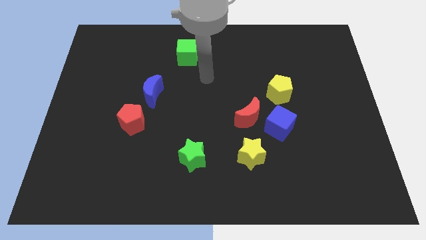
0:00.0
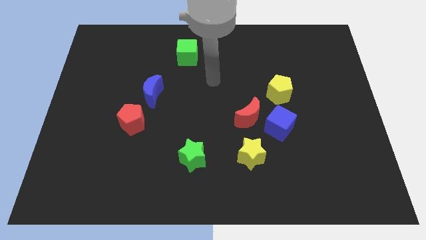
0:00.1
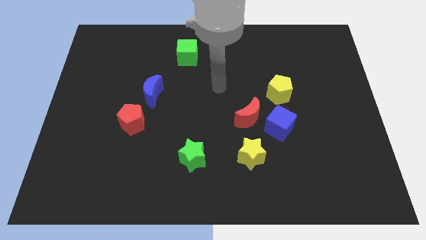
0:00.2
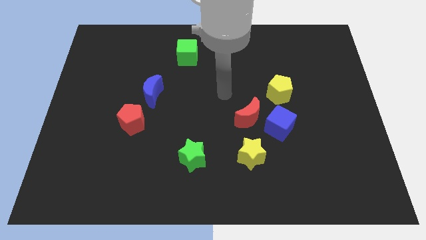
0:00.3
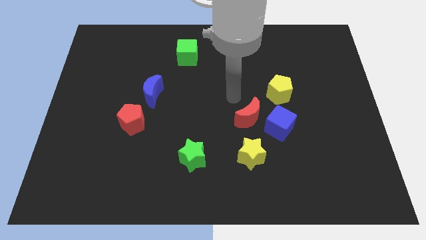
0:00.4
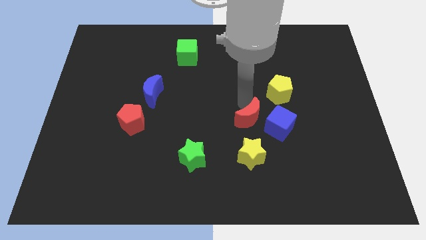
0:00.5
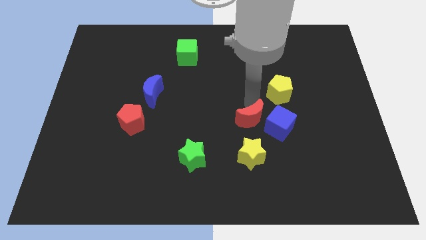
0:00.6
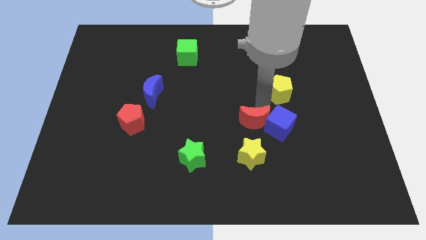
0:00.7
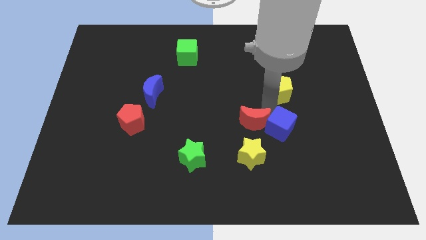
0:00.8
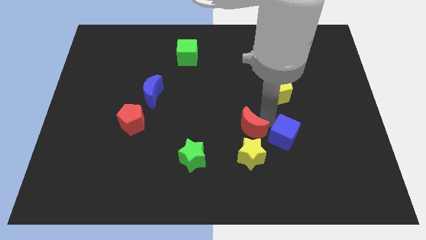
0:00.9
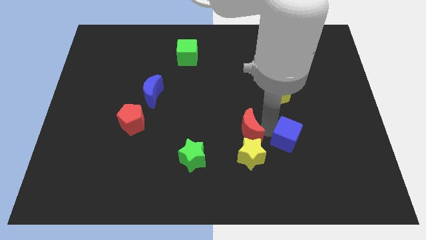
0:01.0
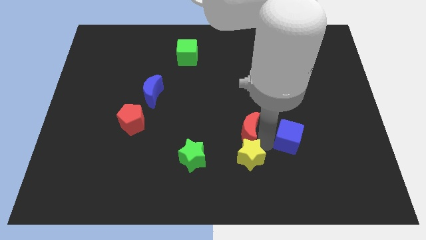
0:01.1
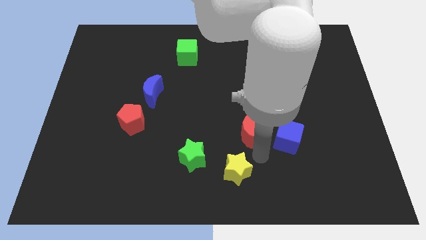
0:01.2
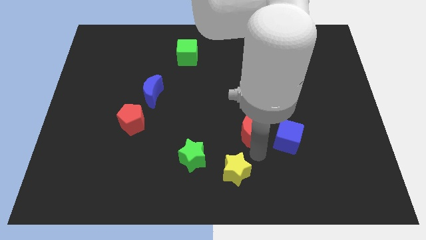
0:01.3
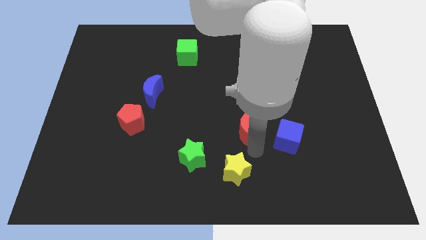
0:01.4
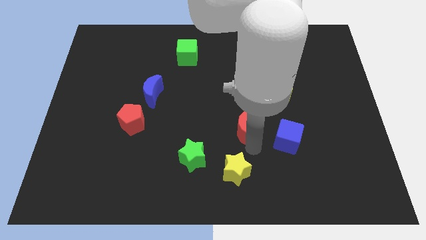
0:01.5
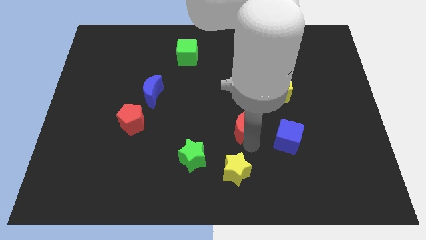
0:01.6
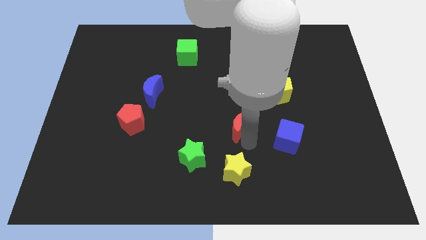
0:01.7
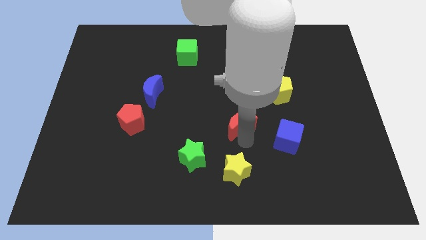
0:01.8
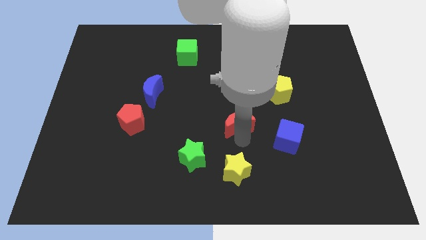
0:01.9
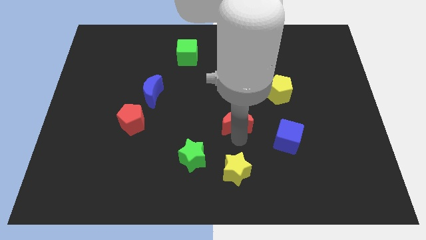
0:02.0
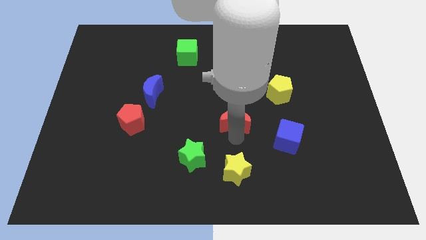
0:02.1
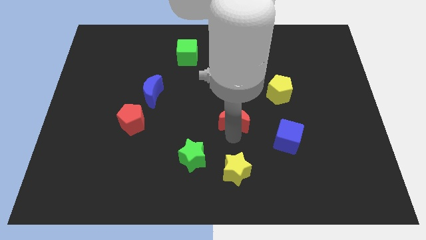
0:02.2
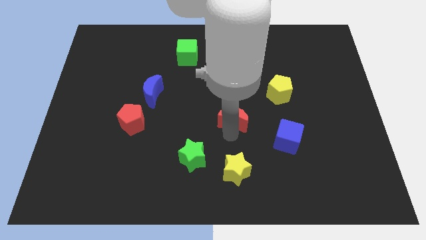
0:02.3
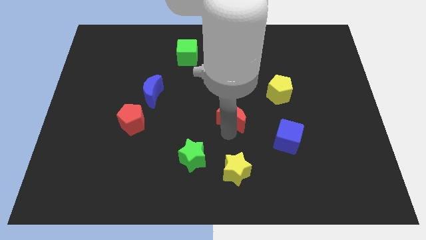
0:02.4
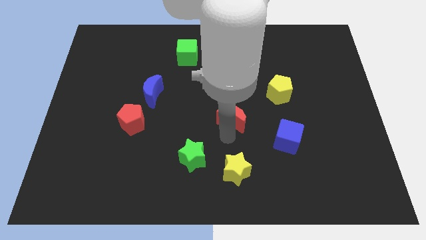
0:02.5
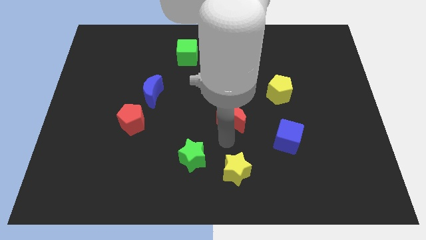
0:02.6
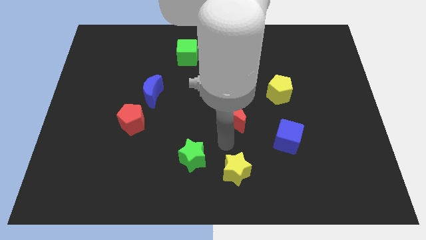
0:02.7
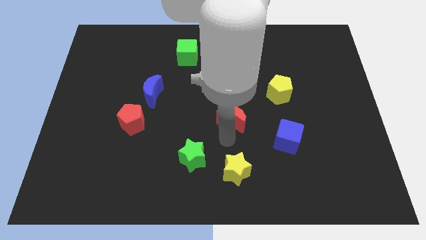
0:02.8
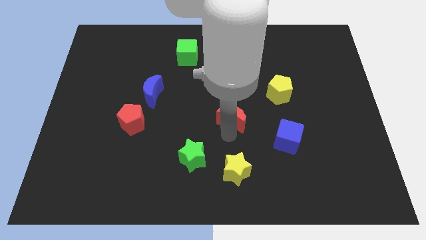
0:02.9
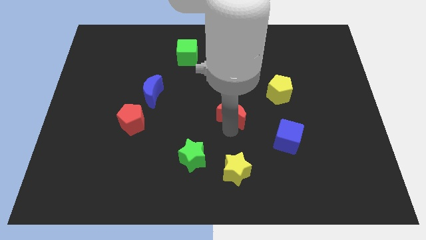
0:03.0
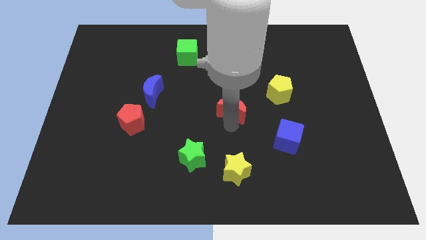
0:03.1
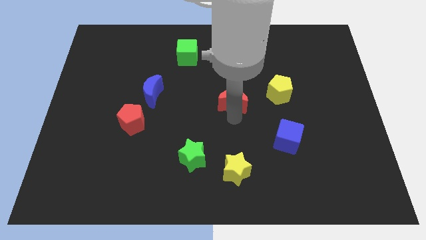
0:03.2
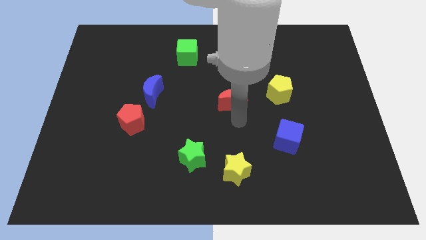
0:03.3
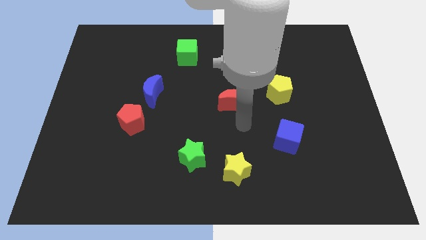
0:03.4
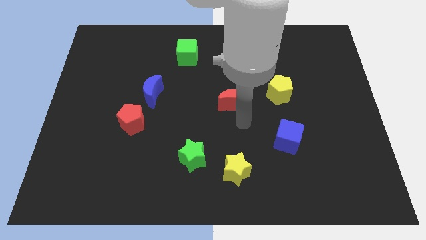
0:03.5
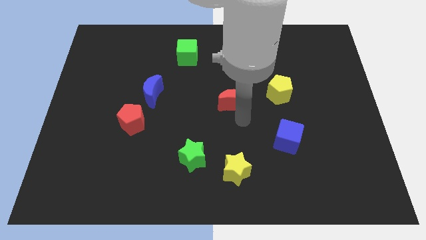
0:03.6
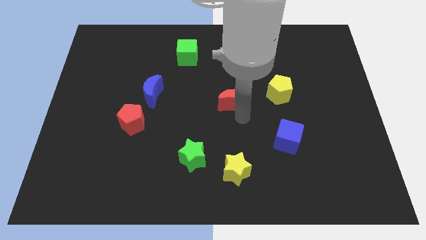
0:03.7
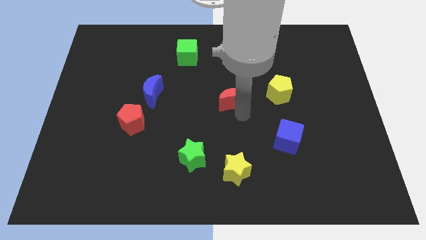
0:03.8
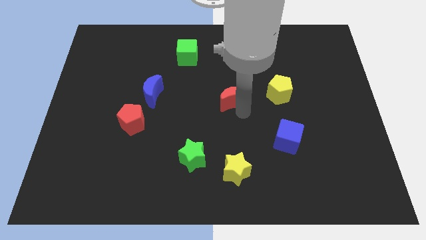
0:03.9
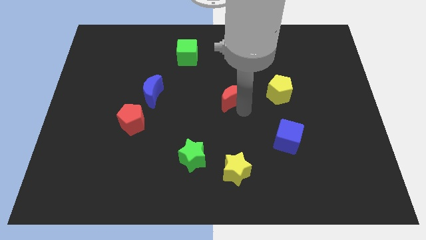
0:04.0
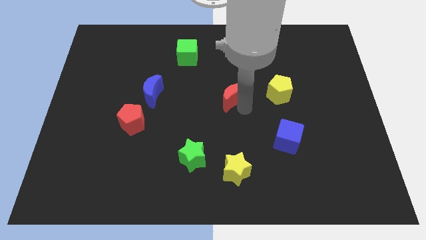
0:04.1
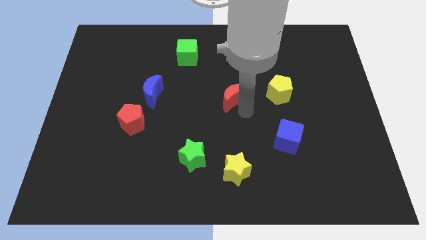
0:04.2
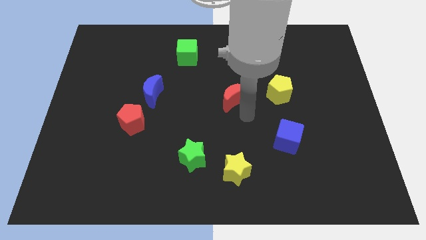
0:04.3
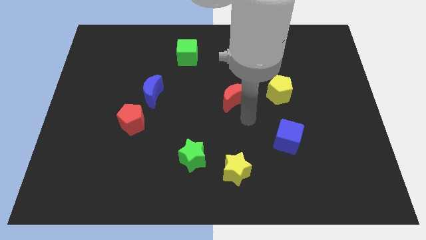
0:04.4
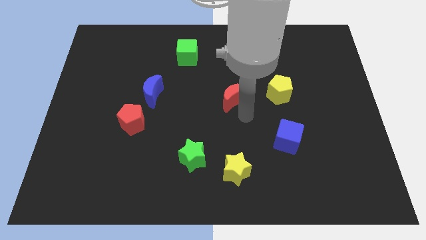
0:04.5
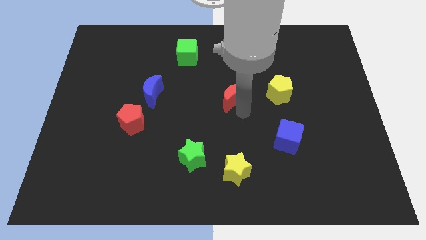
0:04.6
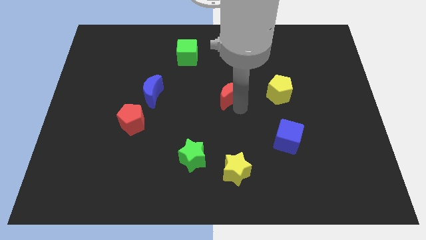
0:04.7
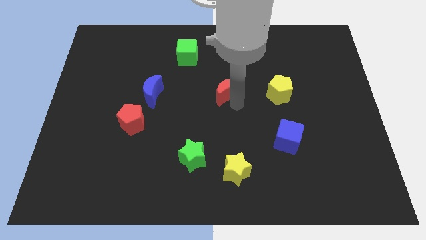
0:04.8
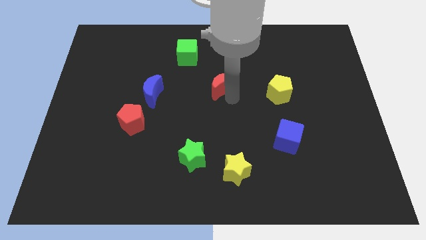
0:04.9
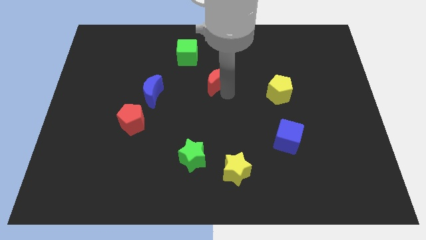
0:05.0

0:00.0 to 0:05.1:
slide the red moon to the bottom right side of the green cube

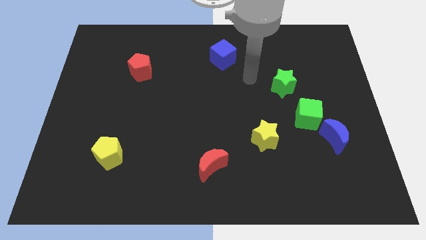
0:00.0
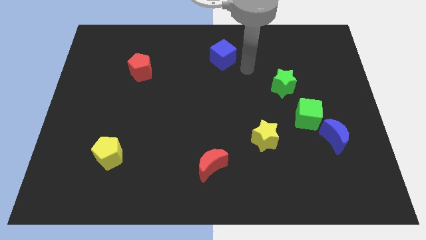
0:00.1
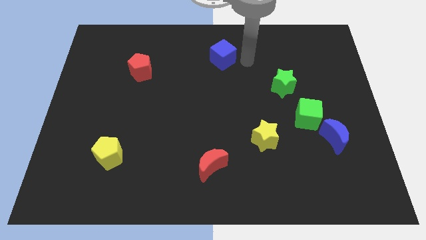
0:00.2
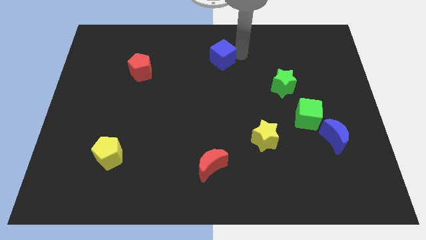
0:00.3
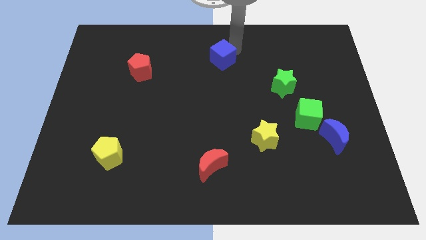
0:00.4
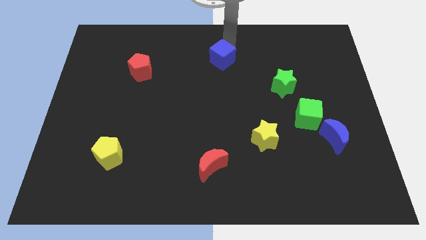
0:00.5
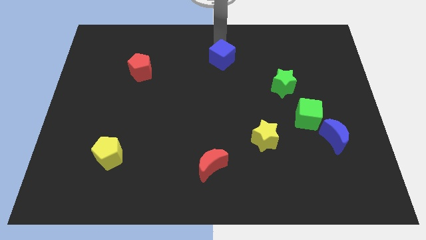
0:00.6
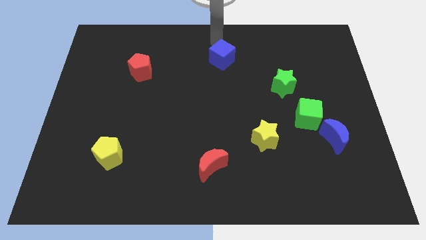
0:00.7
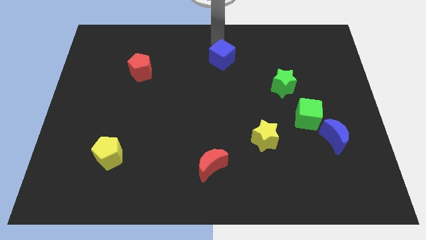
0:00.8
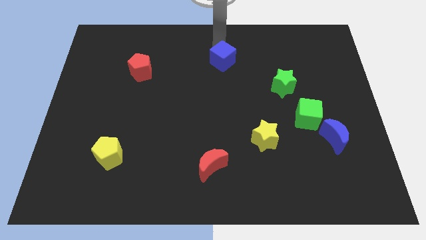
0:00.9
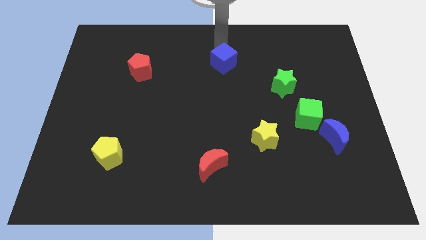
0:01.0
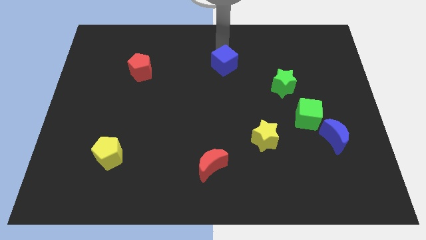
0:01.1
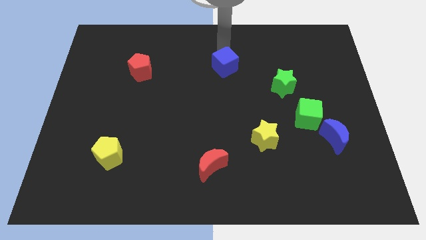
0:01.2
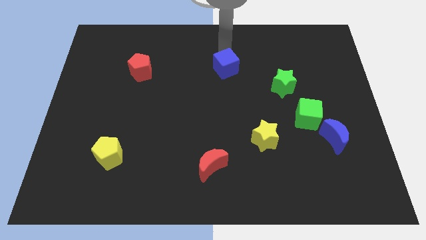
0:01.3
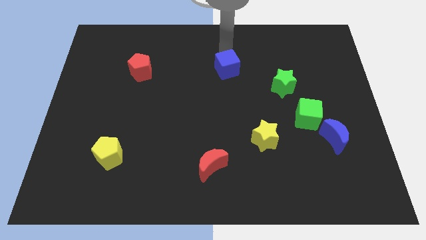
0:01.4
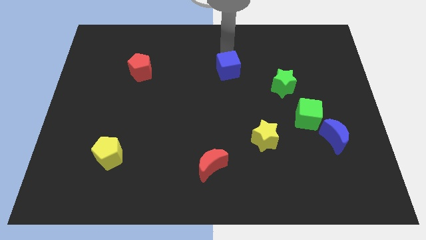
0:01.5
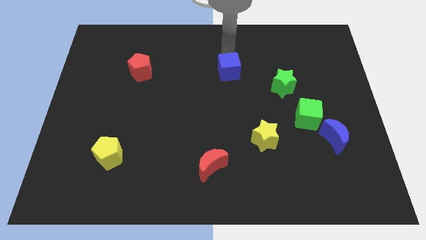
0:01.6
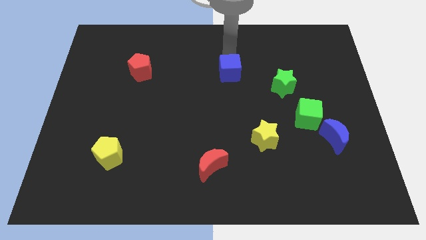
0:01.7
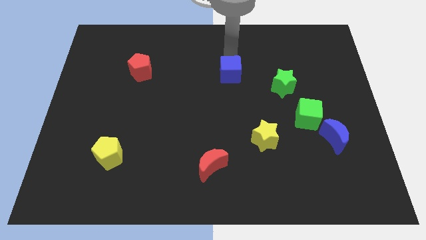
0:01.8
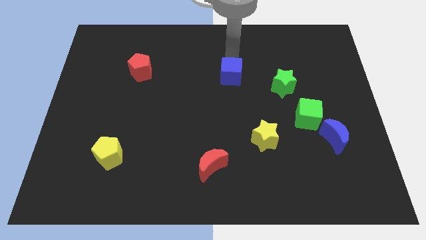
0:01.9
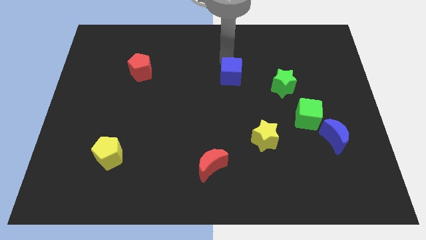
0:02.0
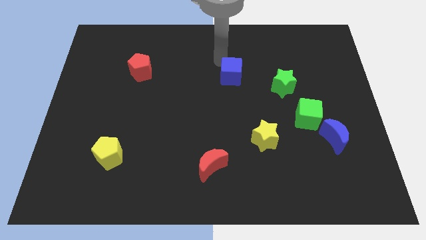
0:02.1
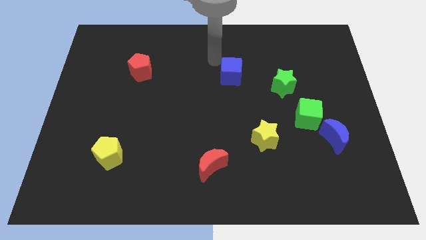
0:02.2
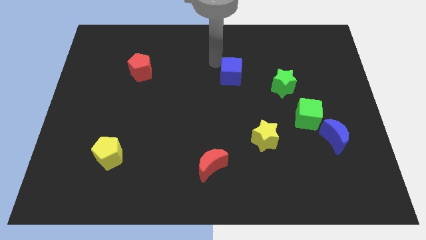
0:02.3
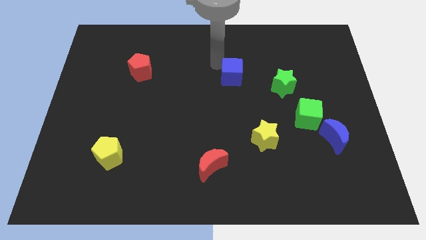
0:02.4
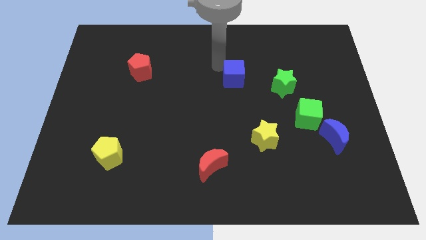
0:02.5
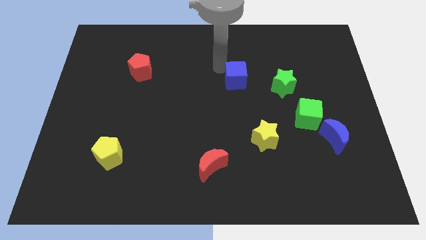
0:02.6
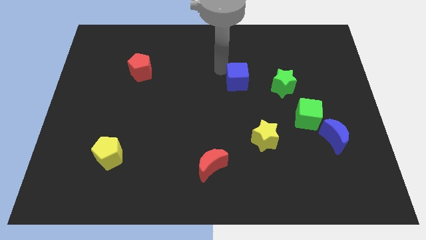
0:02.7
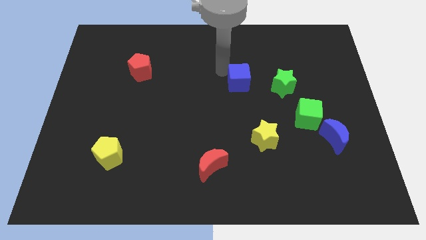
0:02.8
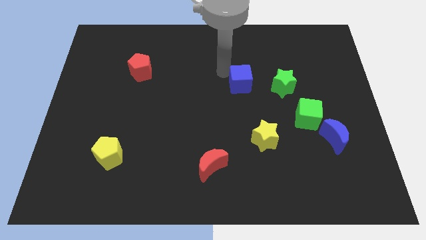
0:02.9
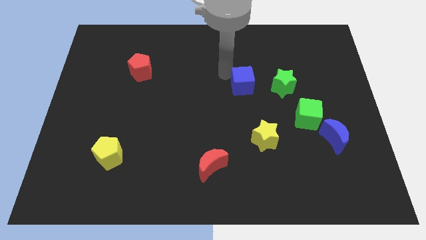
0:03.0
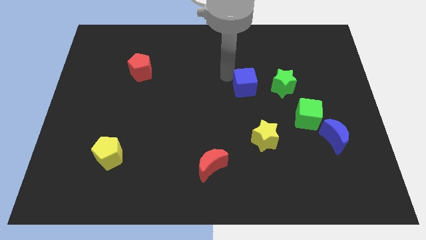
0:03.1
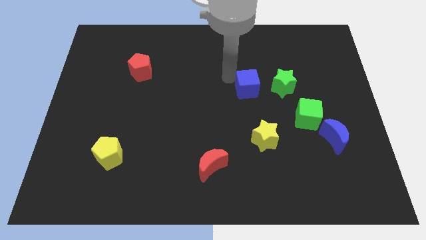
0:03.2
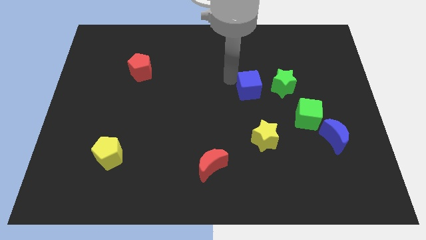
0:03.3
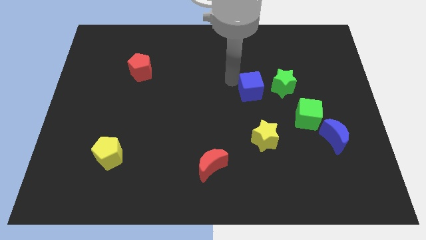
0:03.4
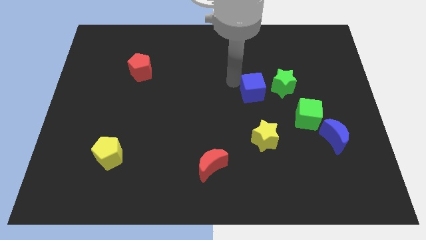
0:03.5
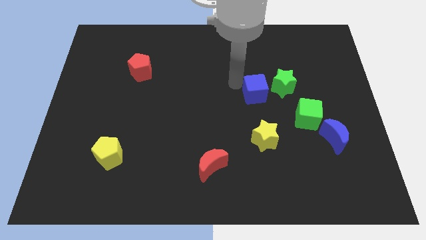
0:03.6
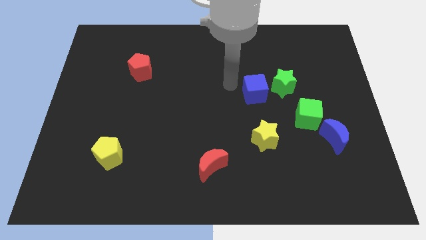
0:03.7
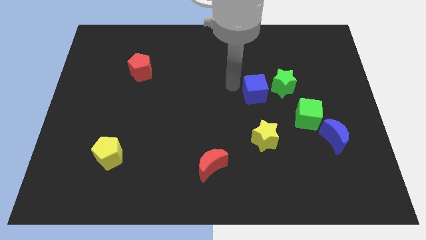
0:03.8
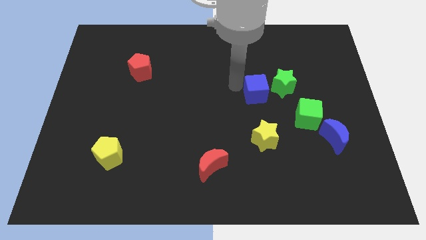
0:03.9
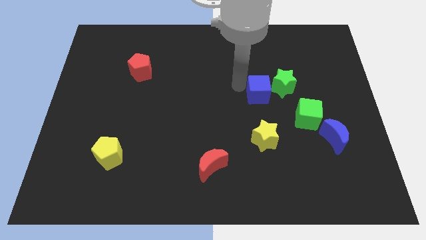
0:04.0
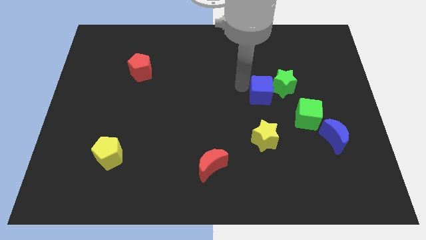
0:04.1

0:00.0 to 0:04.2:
slide the blue cube to the top left side of the green cube
